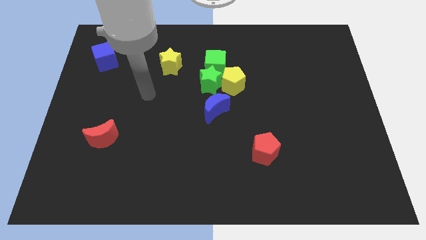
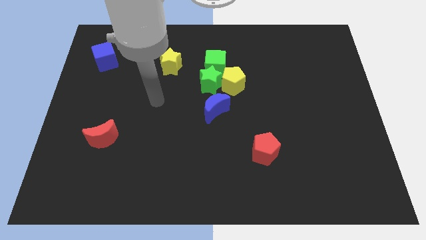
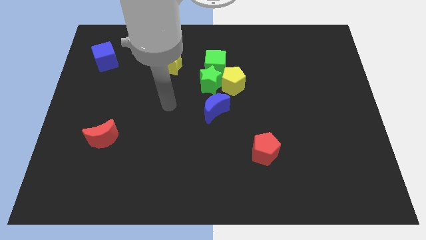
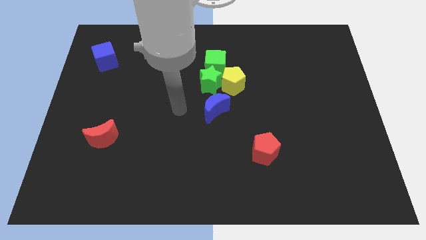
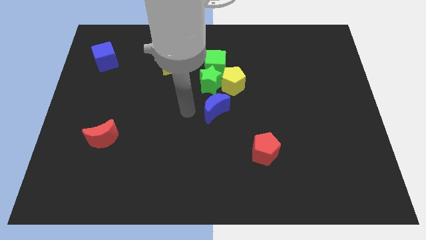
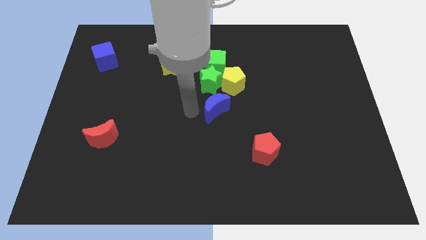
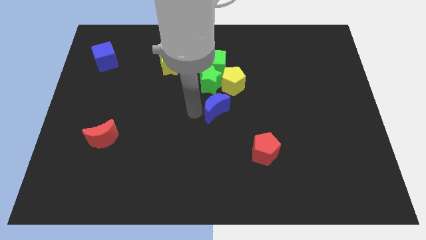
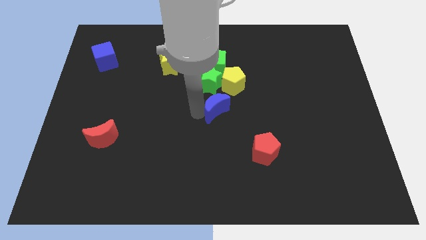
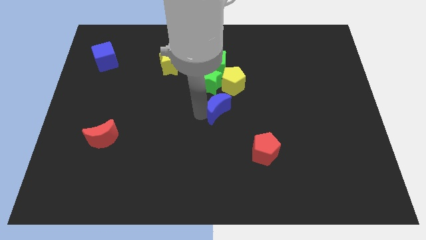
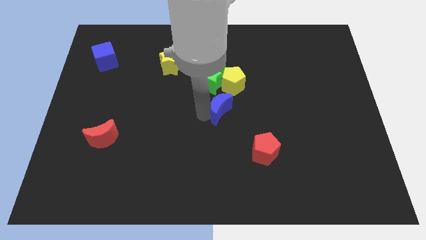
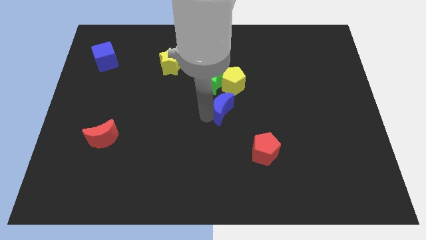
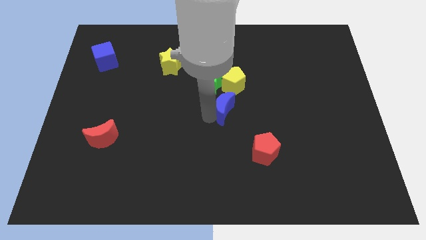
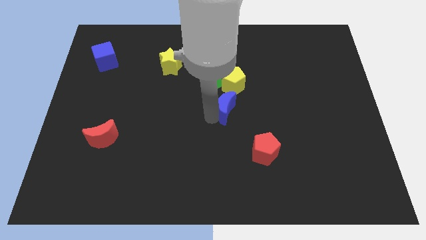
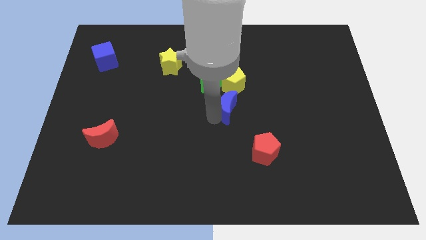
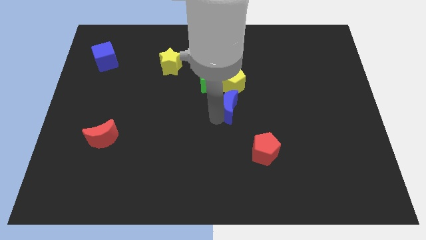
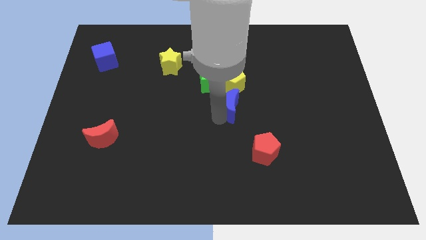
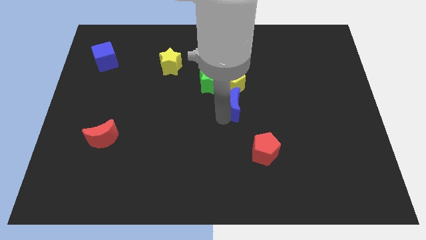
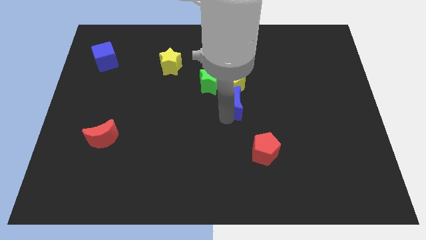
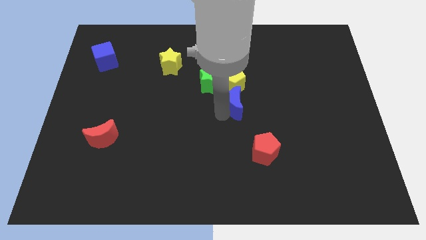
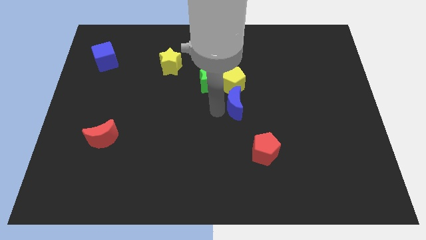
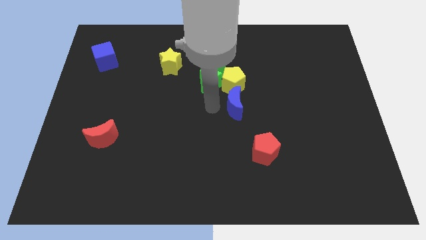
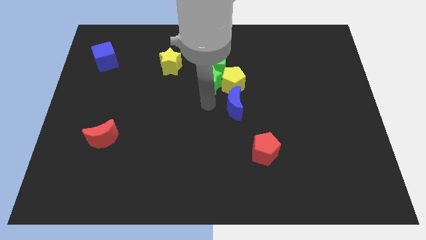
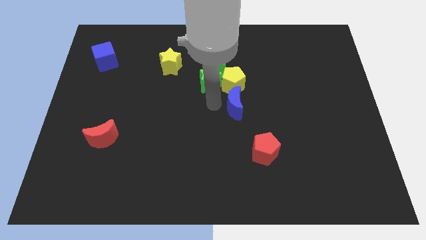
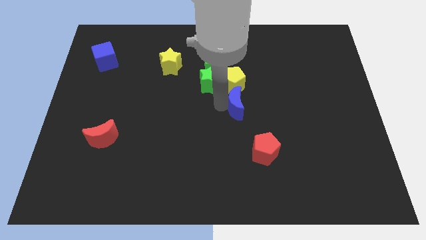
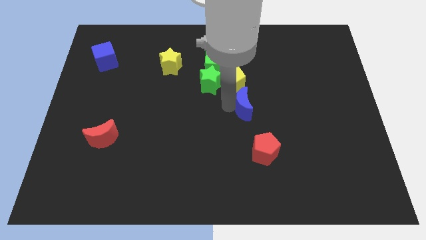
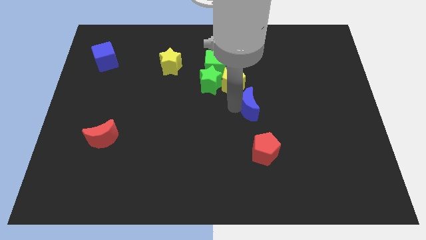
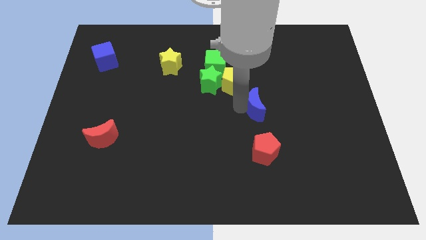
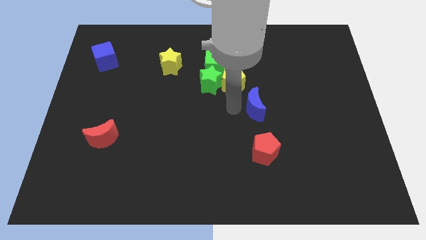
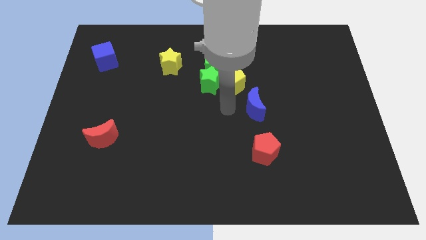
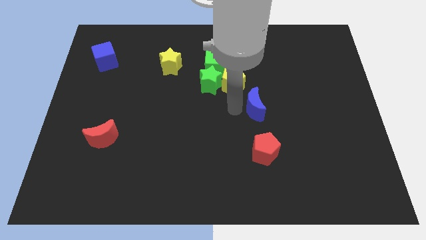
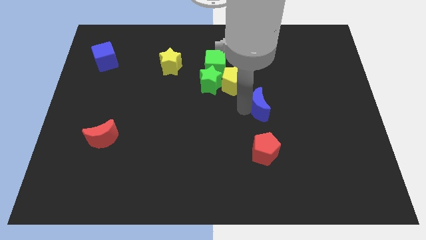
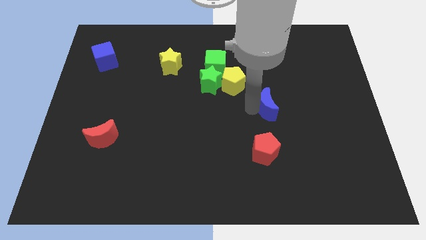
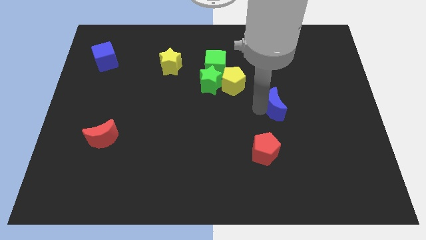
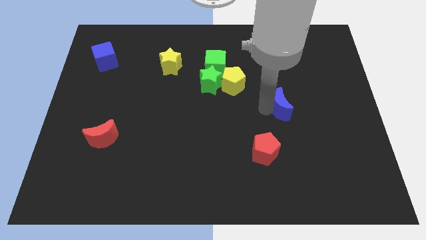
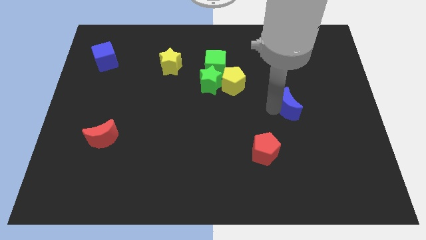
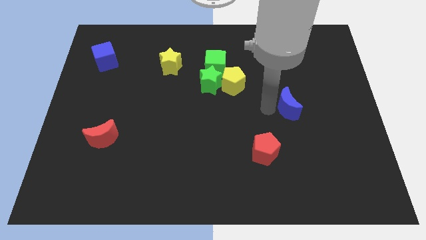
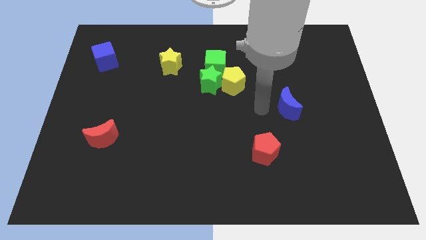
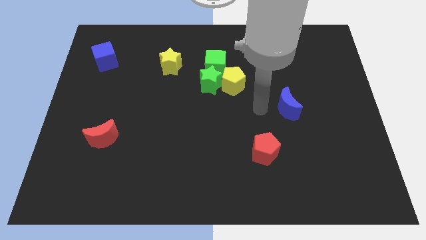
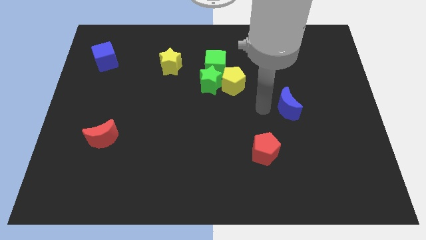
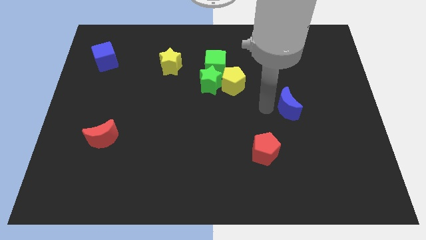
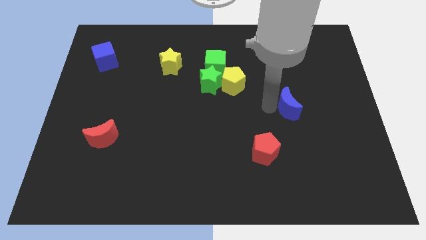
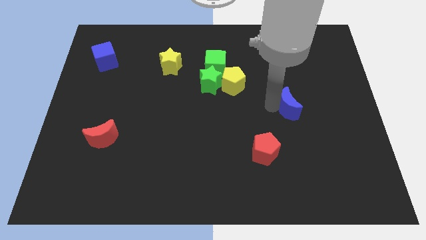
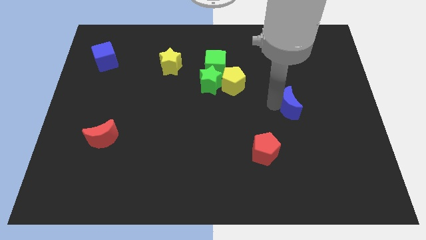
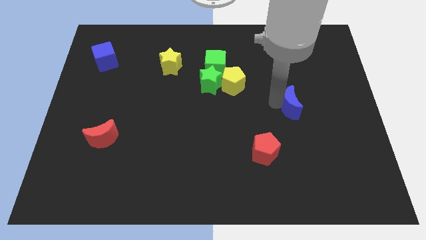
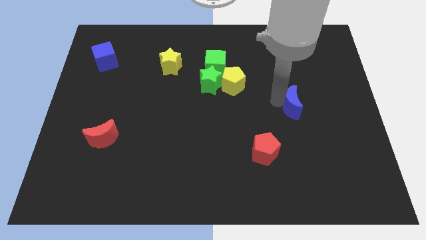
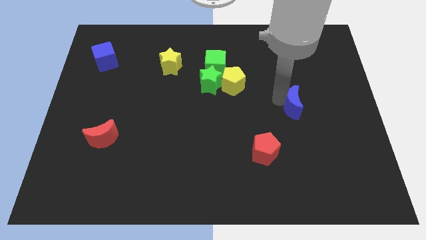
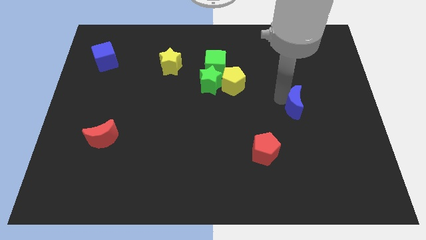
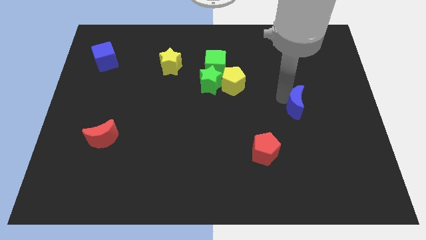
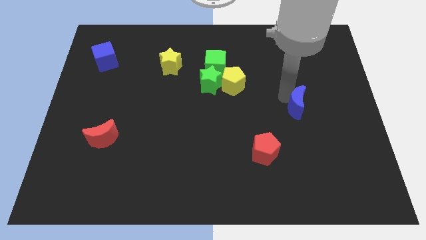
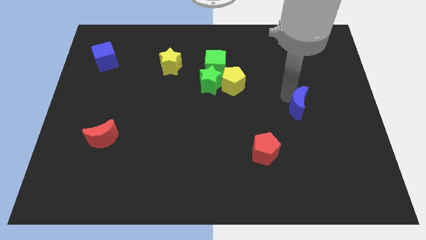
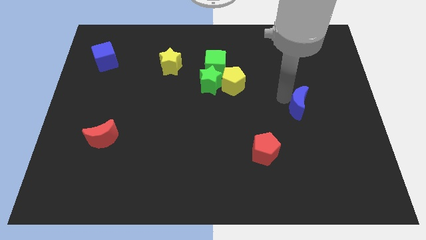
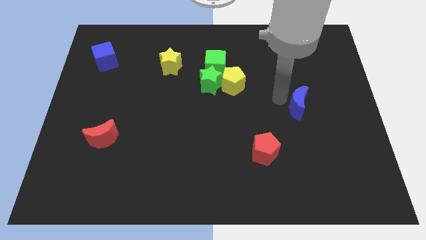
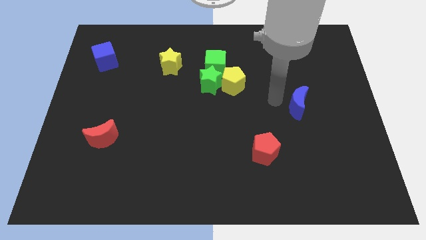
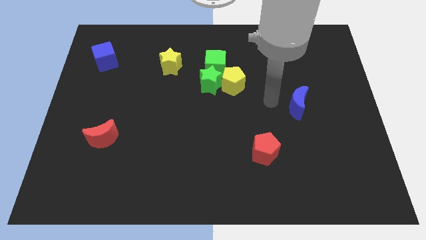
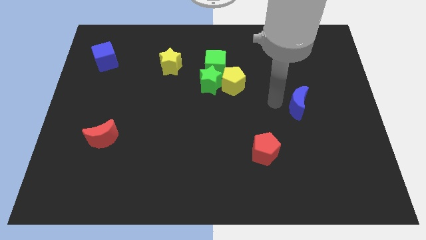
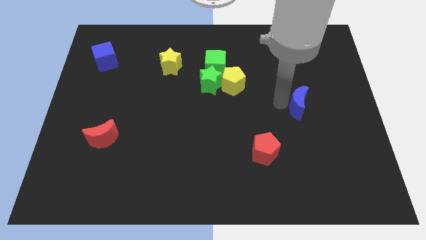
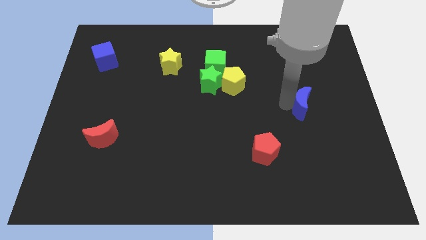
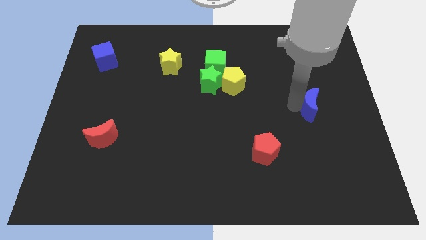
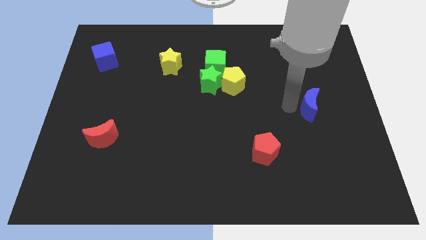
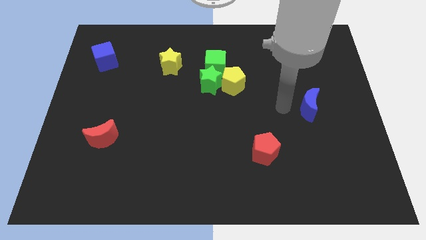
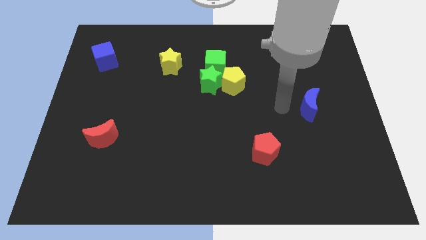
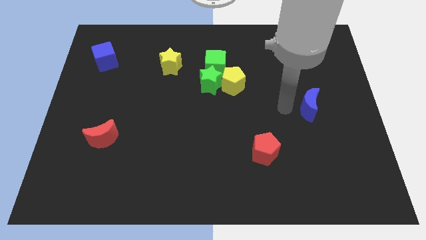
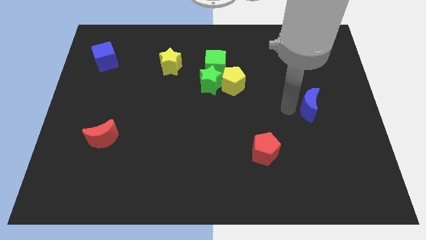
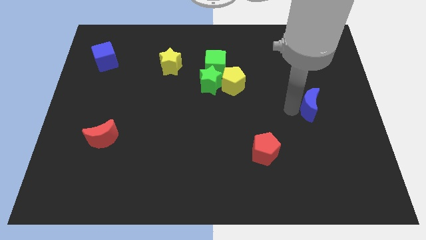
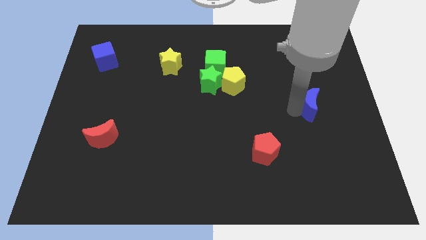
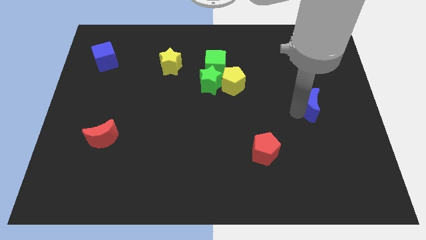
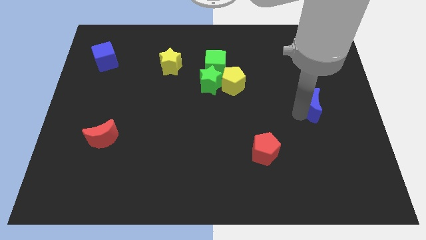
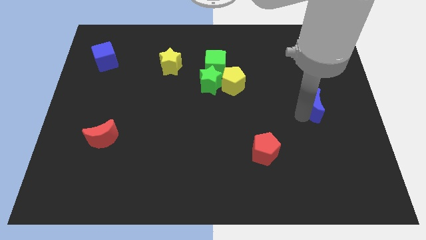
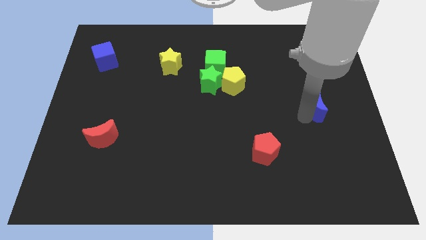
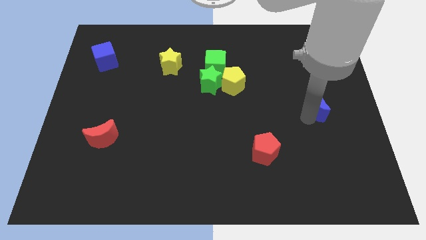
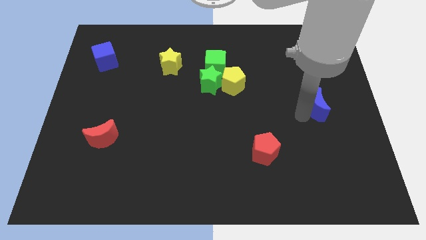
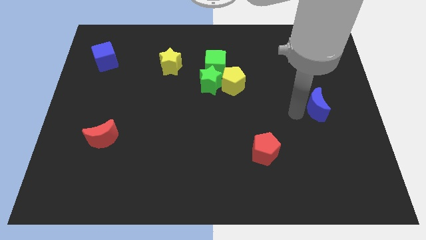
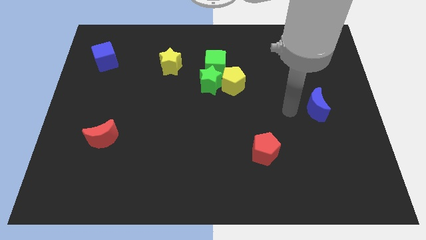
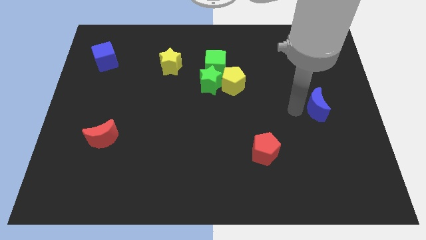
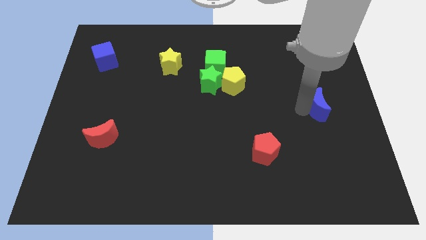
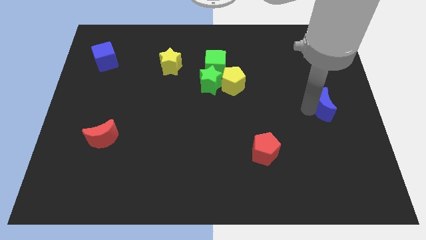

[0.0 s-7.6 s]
move the blue moon to the right side

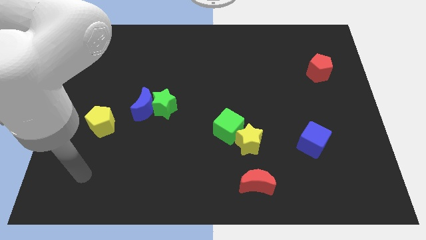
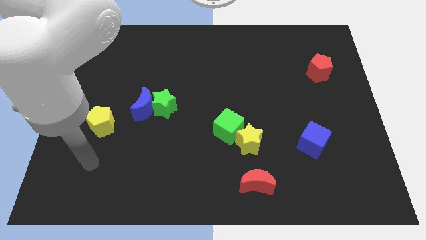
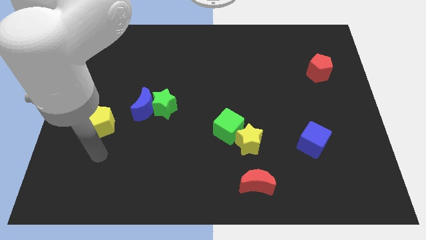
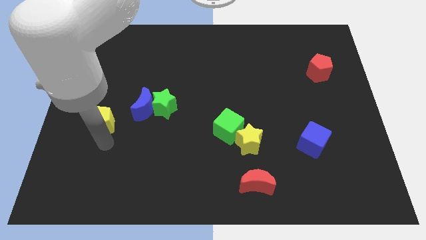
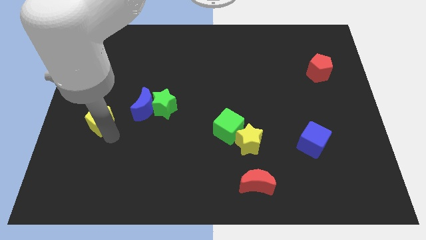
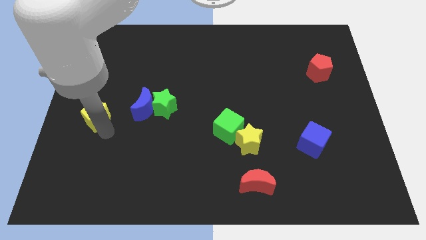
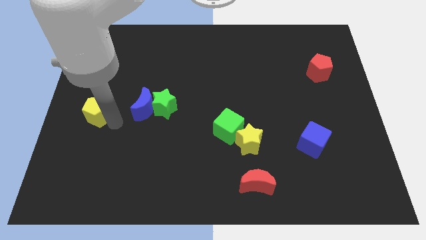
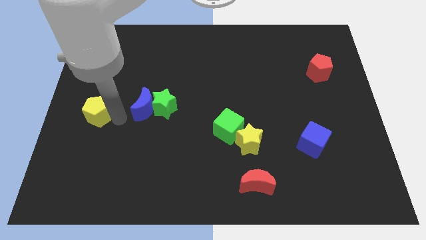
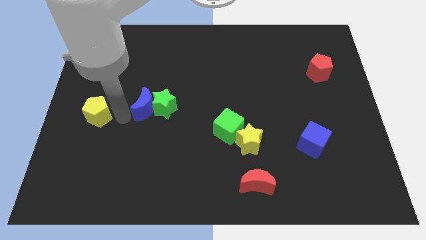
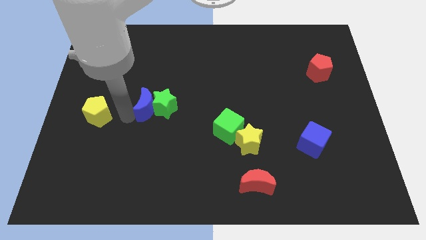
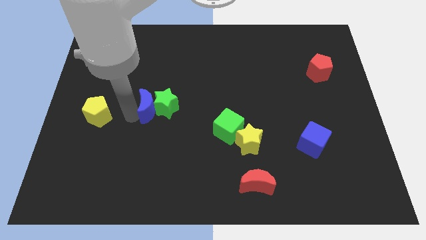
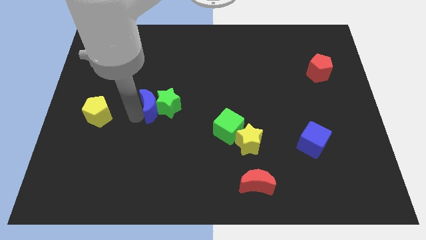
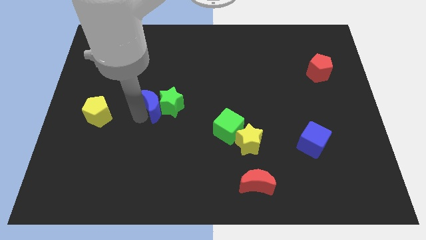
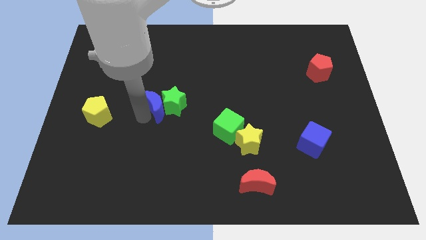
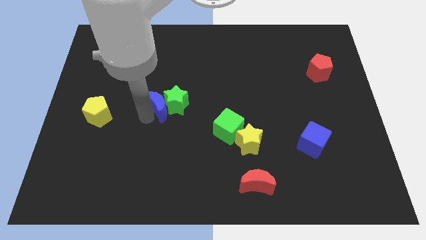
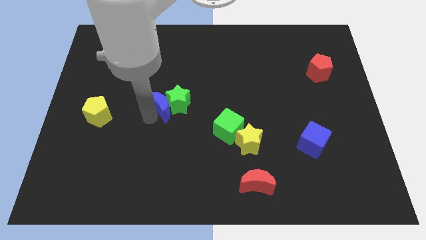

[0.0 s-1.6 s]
slide the blue moon to the middle of the board
